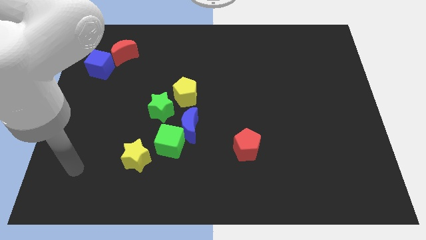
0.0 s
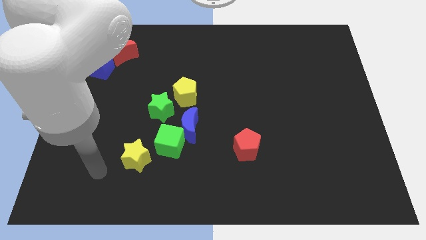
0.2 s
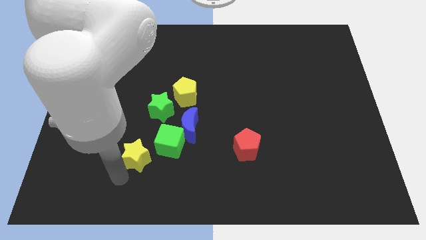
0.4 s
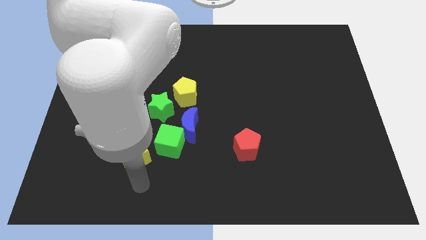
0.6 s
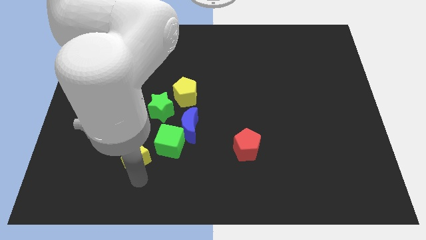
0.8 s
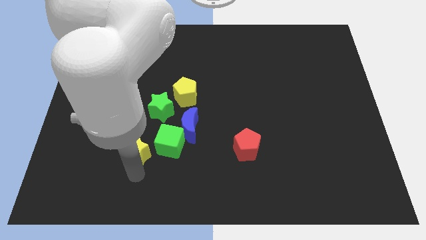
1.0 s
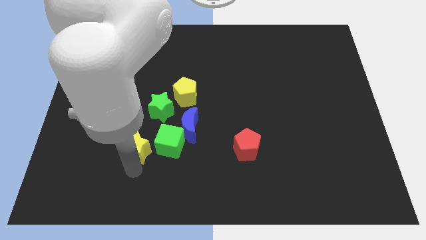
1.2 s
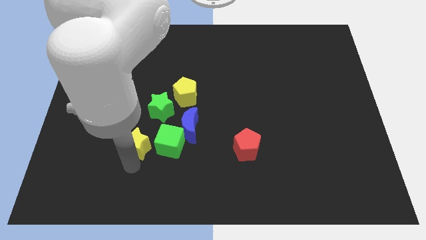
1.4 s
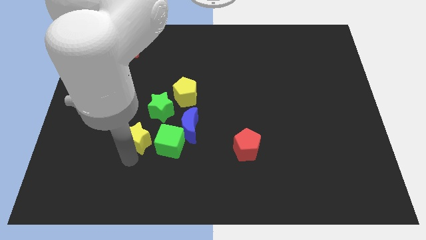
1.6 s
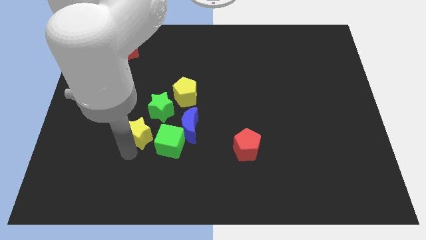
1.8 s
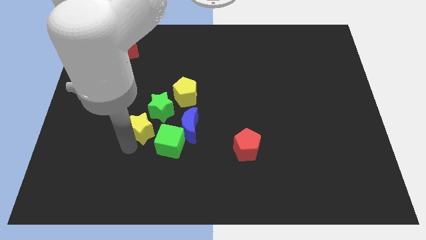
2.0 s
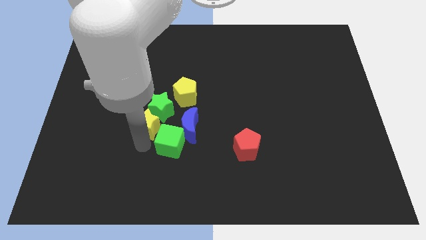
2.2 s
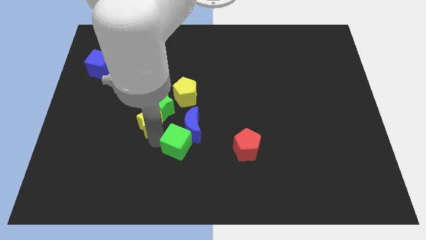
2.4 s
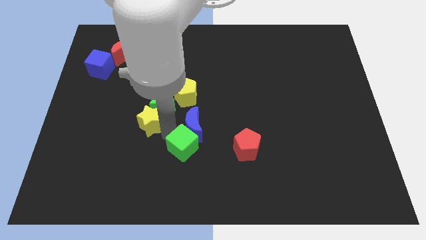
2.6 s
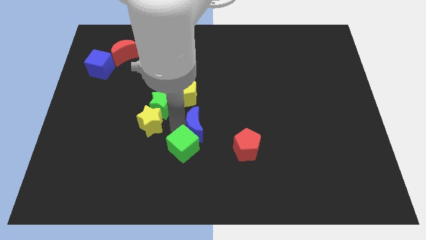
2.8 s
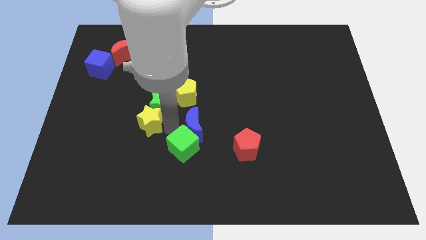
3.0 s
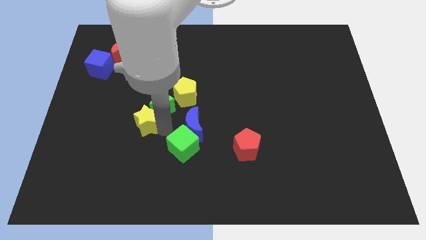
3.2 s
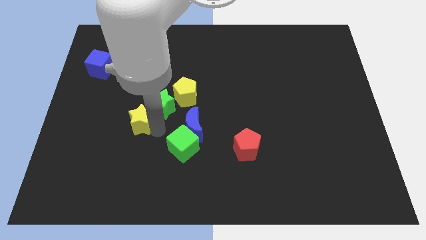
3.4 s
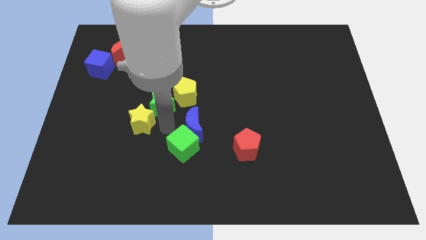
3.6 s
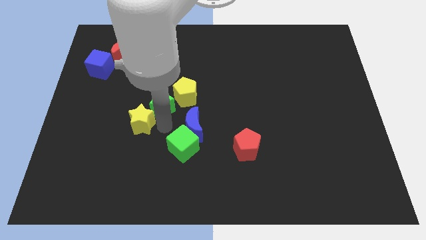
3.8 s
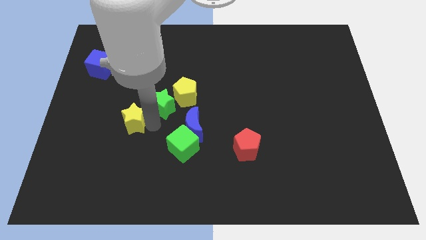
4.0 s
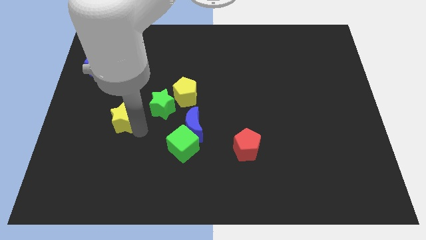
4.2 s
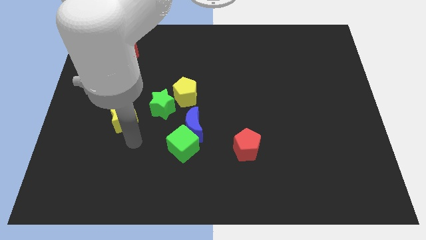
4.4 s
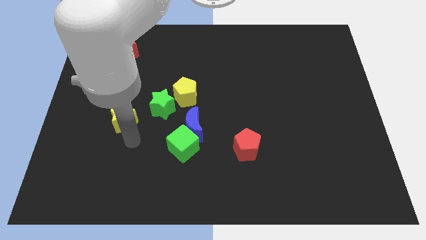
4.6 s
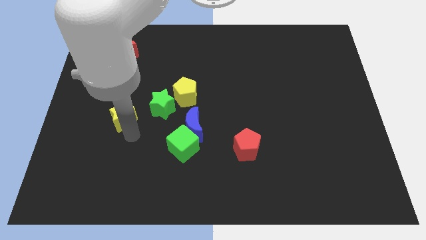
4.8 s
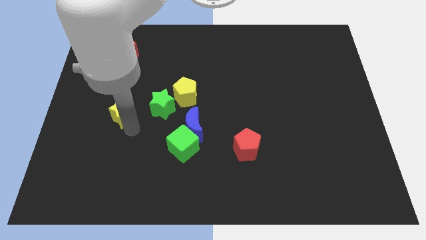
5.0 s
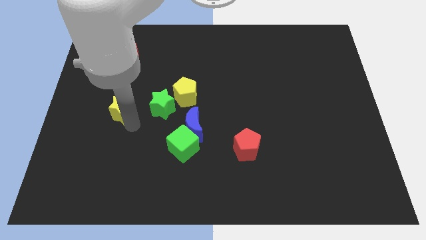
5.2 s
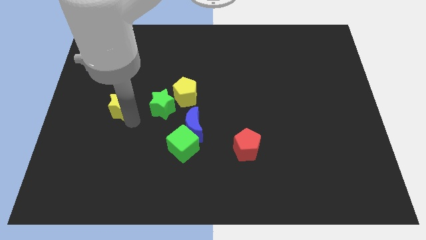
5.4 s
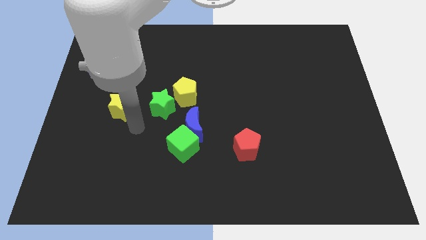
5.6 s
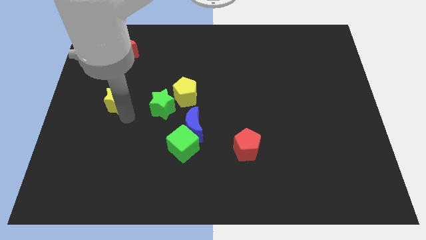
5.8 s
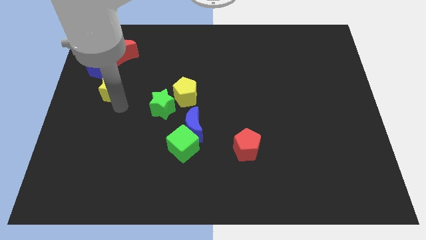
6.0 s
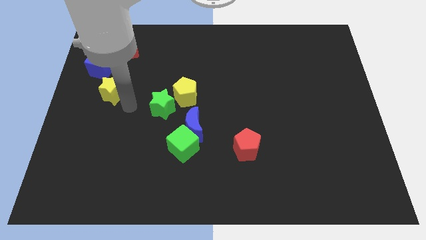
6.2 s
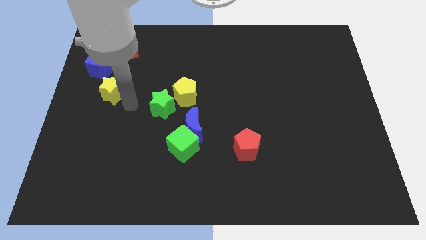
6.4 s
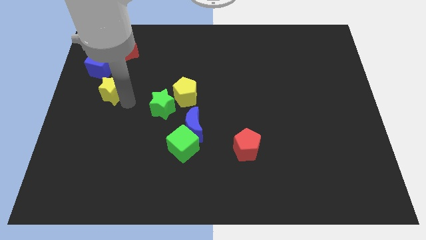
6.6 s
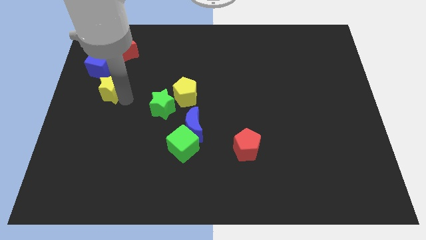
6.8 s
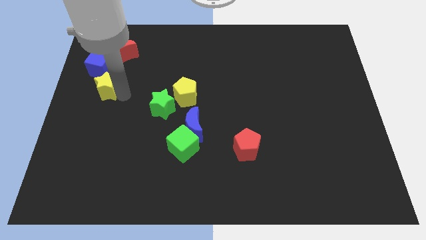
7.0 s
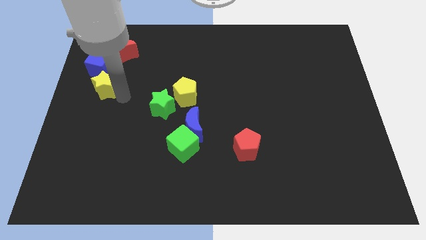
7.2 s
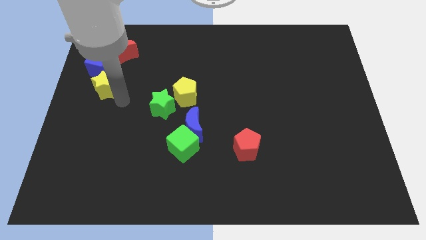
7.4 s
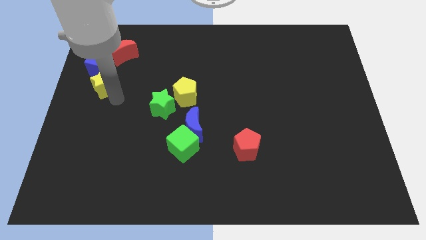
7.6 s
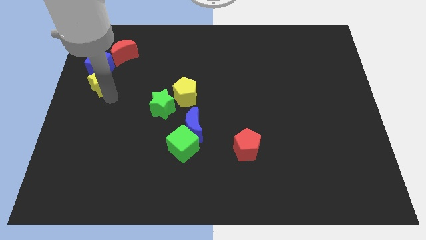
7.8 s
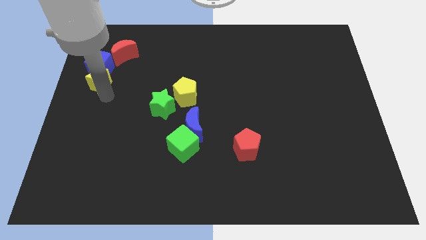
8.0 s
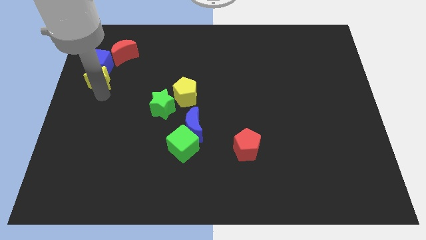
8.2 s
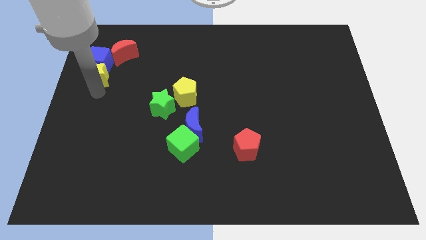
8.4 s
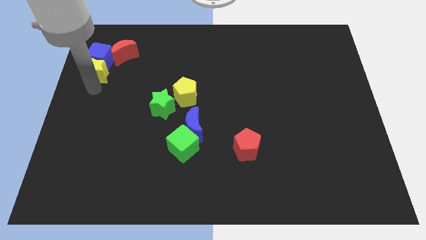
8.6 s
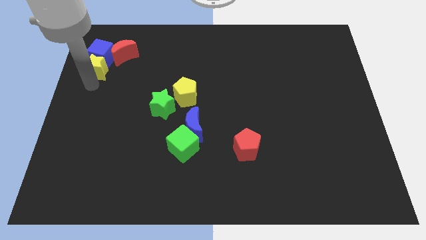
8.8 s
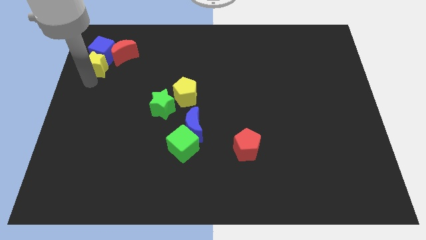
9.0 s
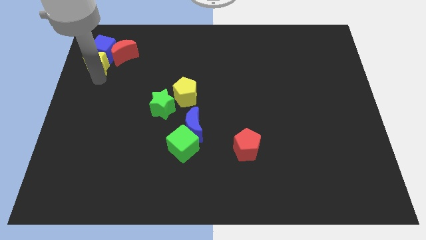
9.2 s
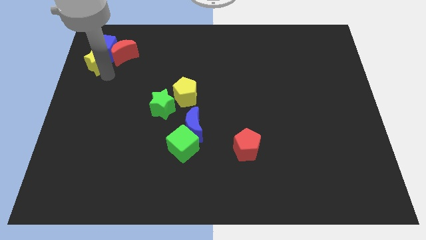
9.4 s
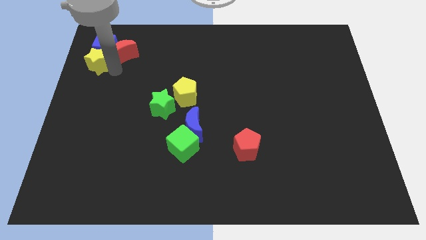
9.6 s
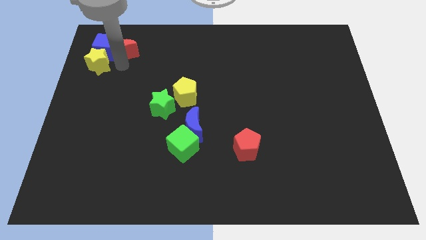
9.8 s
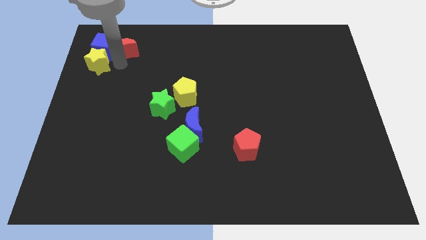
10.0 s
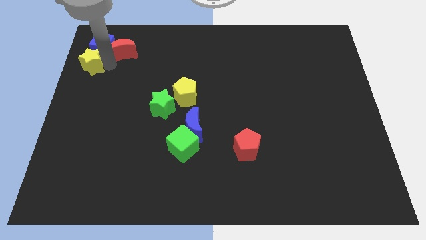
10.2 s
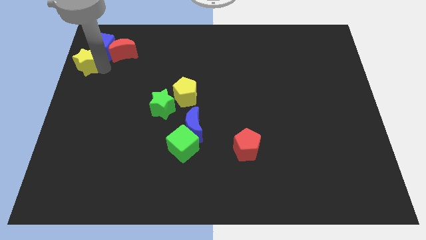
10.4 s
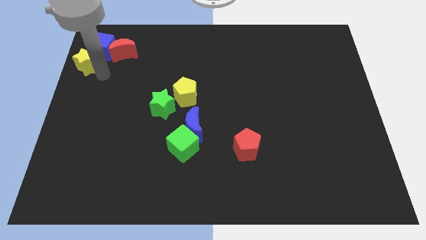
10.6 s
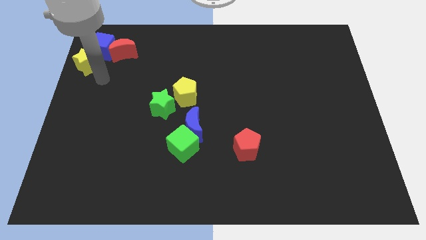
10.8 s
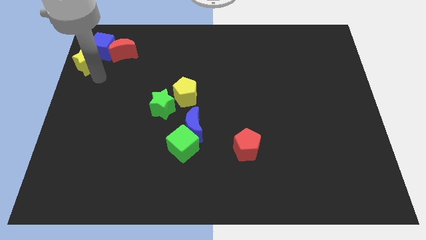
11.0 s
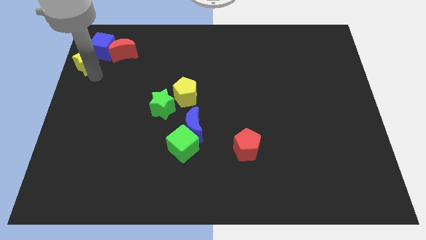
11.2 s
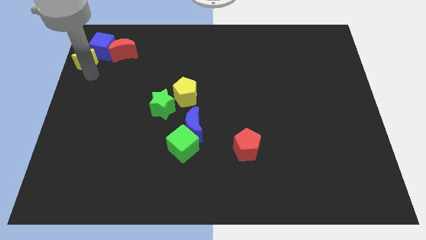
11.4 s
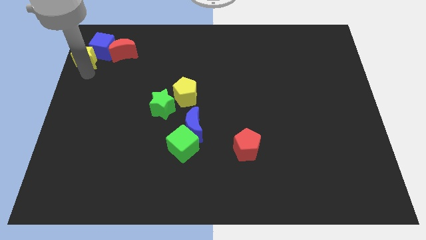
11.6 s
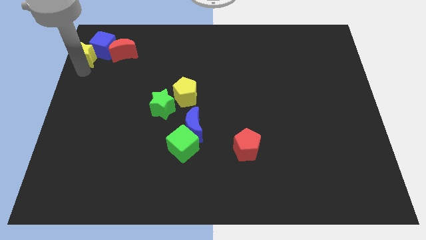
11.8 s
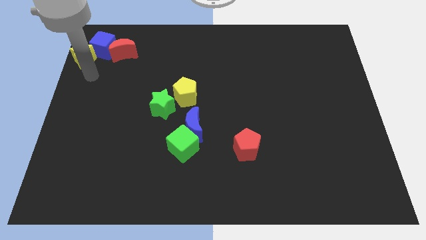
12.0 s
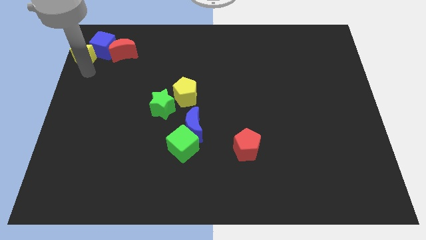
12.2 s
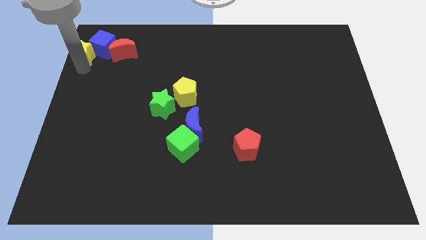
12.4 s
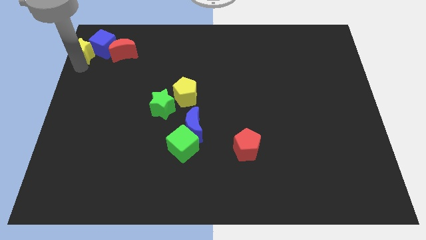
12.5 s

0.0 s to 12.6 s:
move the yellow star to the top left corner

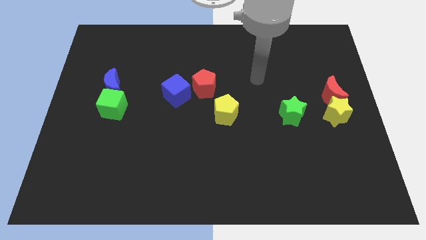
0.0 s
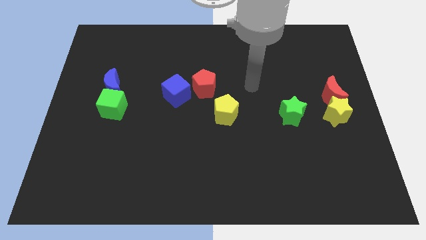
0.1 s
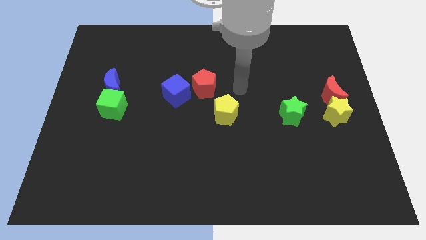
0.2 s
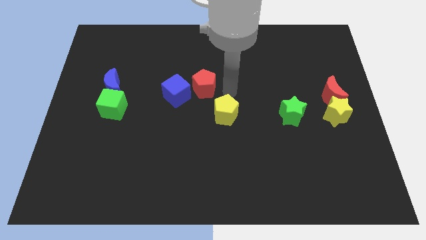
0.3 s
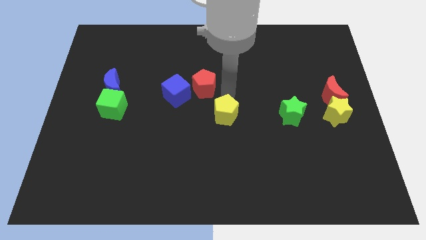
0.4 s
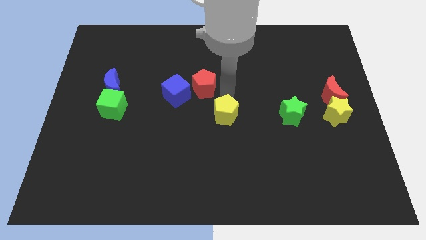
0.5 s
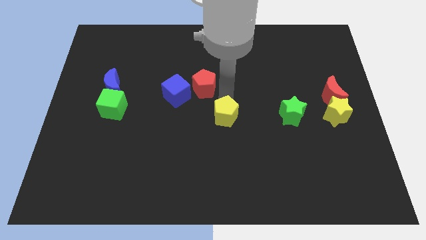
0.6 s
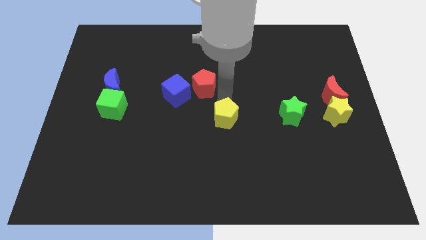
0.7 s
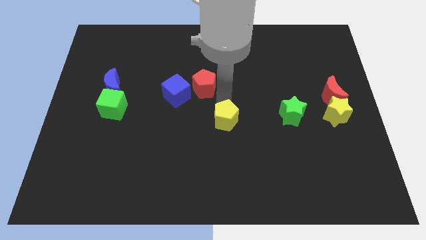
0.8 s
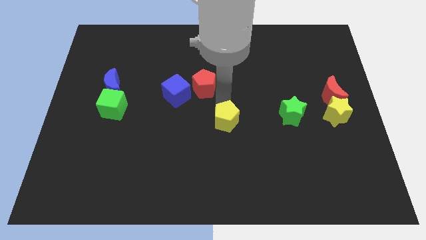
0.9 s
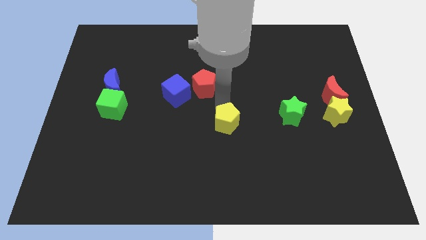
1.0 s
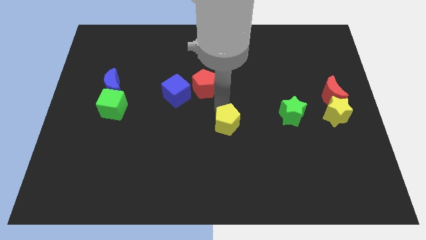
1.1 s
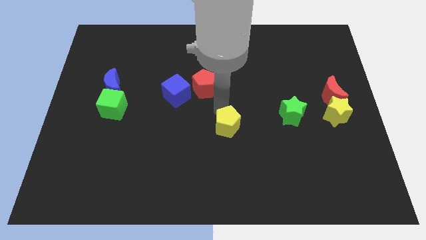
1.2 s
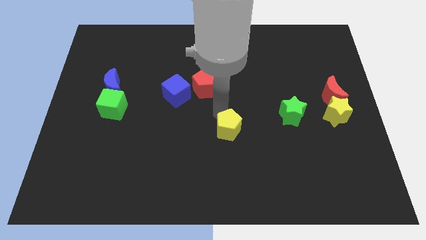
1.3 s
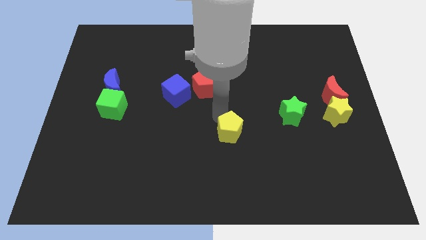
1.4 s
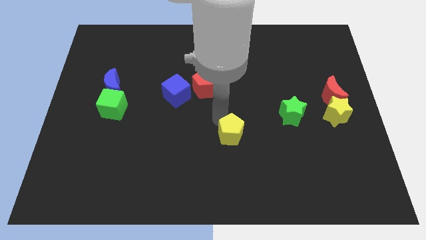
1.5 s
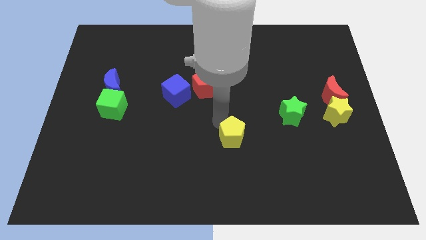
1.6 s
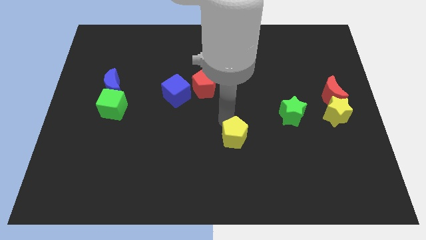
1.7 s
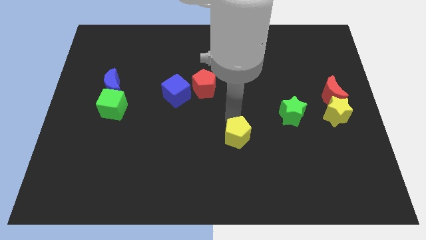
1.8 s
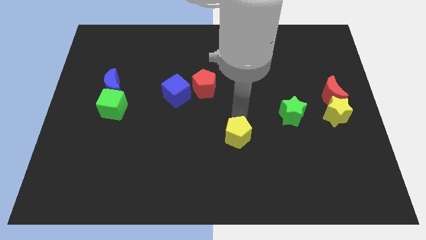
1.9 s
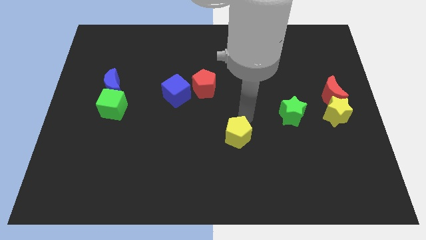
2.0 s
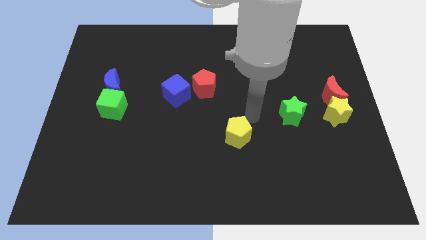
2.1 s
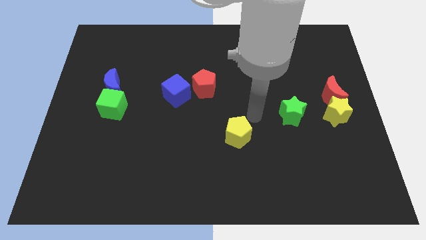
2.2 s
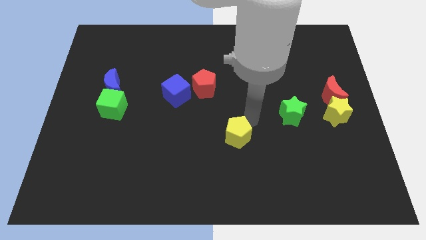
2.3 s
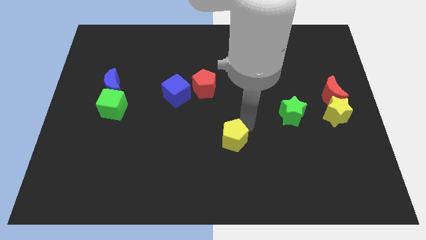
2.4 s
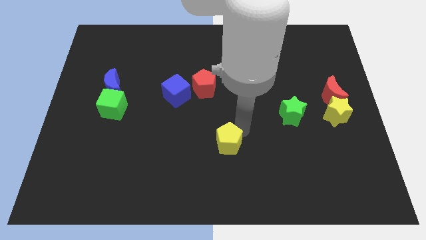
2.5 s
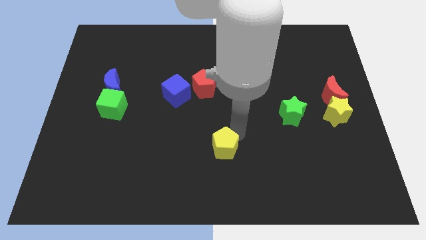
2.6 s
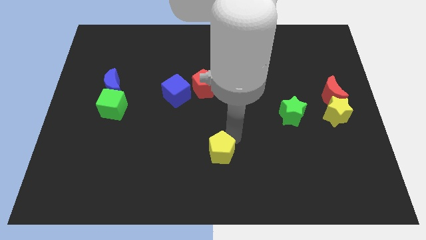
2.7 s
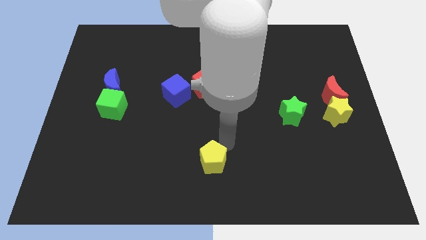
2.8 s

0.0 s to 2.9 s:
push the yellow pentagon to the bottom
